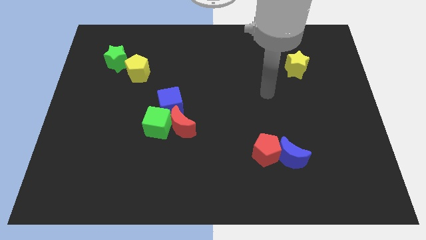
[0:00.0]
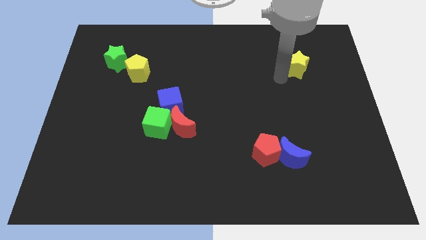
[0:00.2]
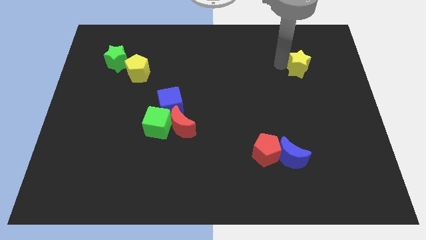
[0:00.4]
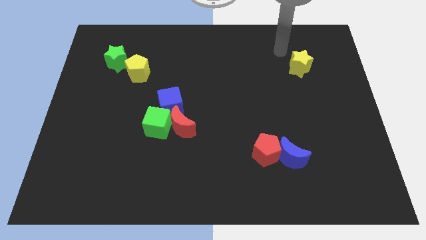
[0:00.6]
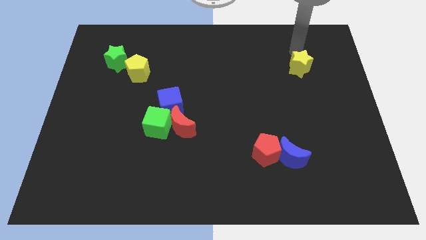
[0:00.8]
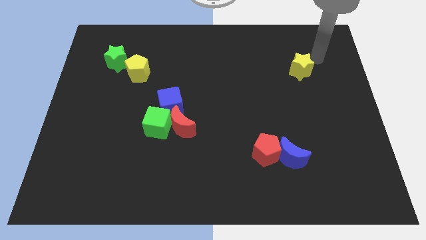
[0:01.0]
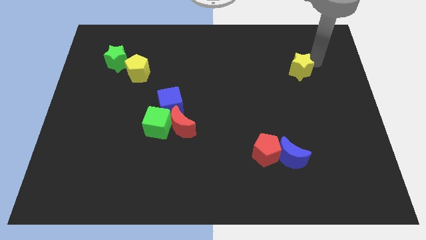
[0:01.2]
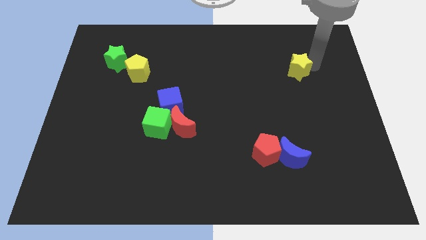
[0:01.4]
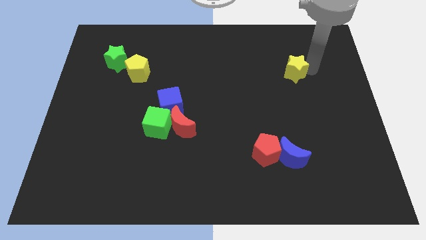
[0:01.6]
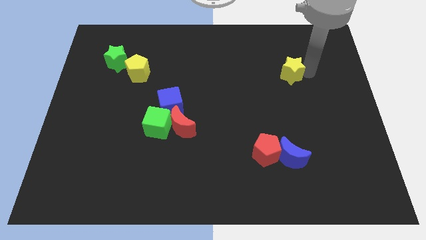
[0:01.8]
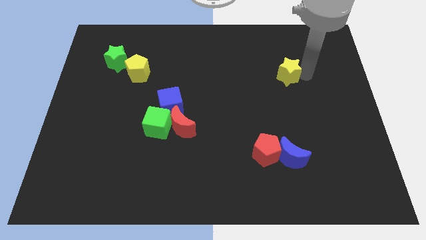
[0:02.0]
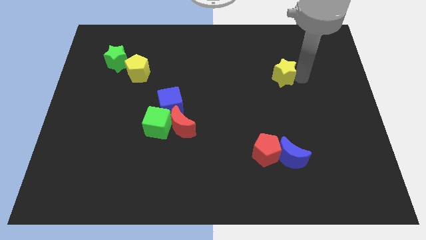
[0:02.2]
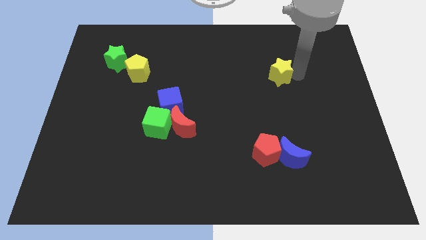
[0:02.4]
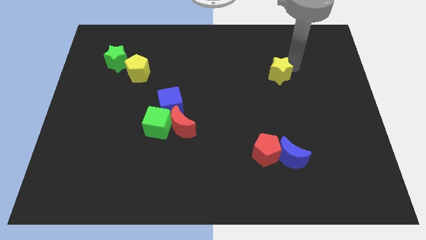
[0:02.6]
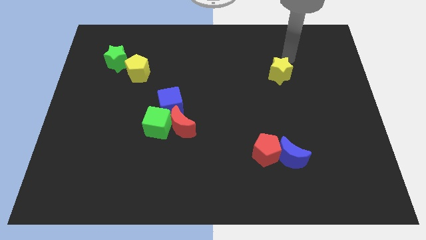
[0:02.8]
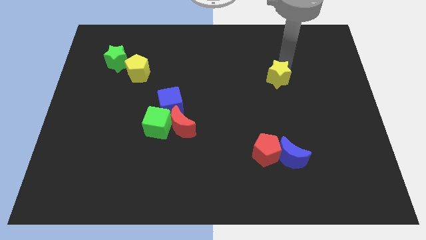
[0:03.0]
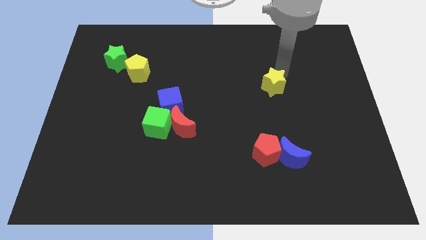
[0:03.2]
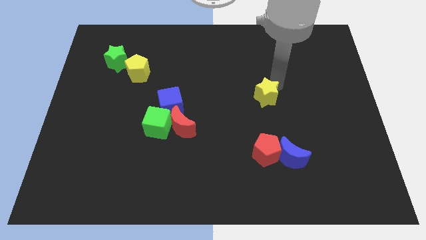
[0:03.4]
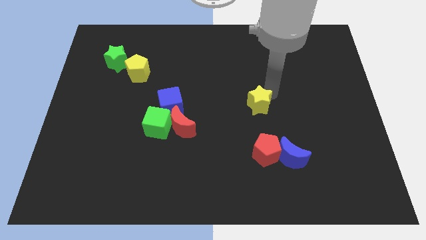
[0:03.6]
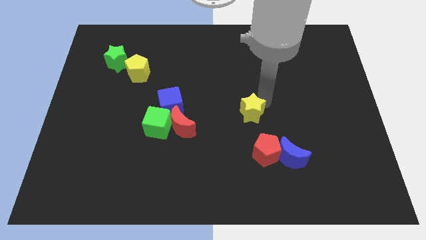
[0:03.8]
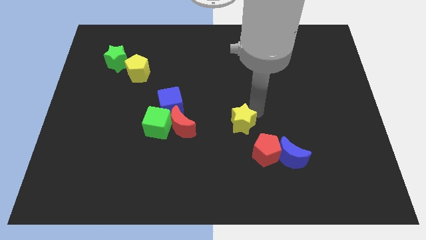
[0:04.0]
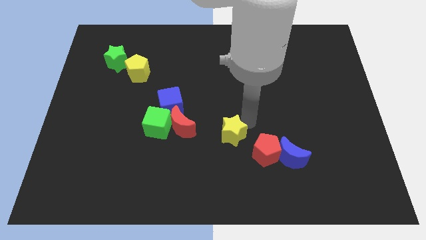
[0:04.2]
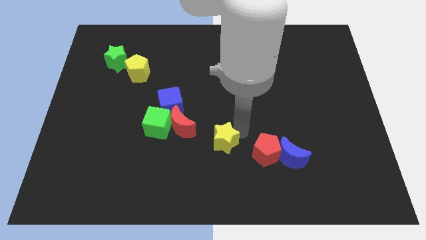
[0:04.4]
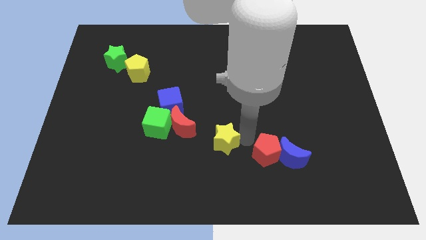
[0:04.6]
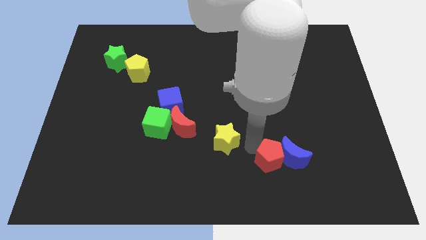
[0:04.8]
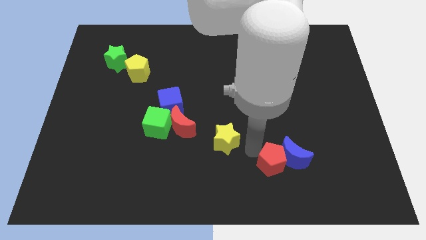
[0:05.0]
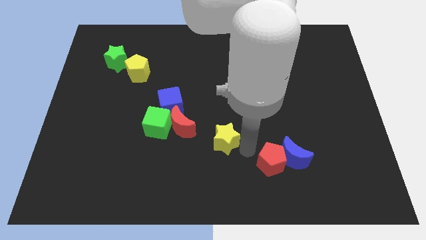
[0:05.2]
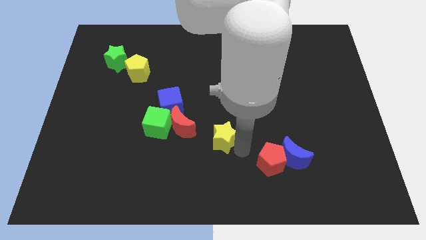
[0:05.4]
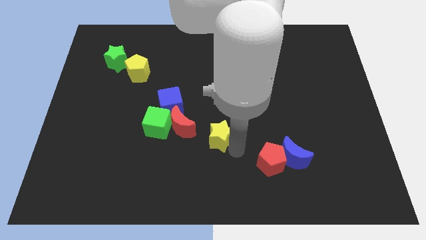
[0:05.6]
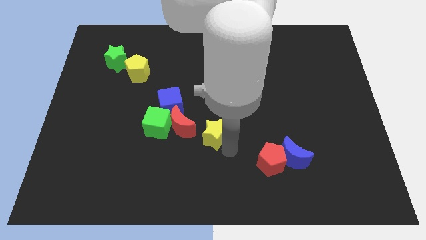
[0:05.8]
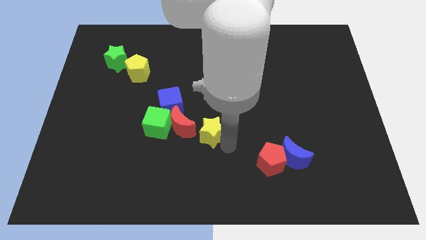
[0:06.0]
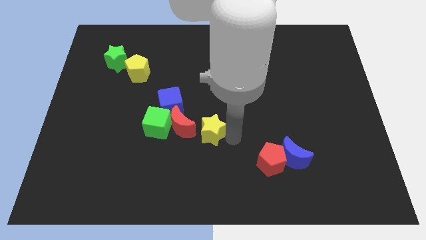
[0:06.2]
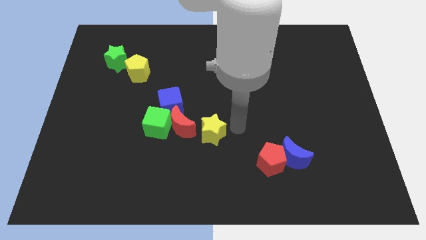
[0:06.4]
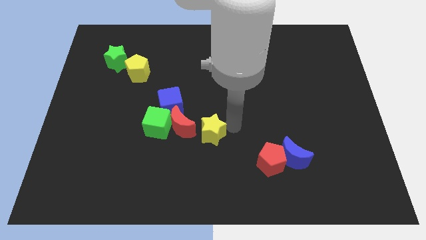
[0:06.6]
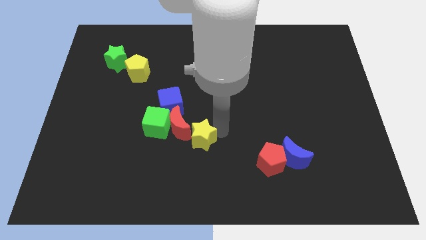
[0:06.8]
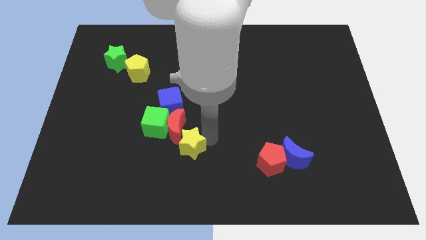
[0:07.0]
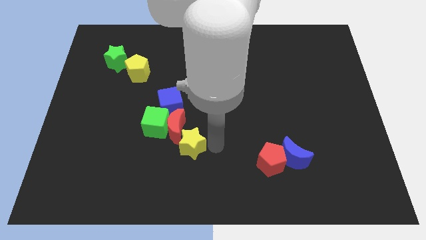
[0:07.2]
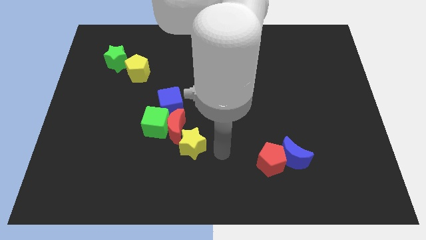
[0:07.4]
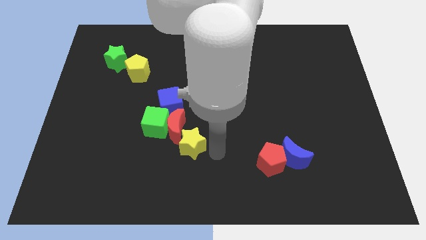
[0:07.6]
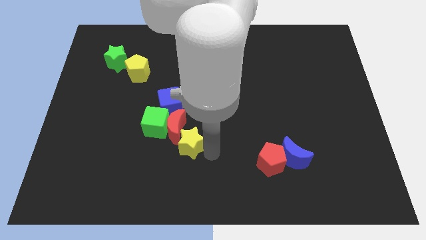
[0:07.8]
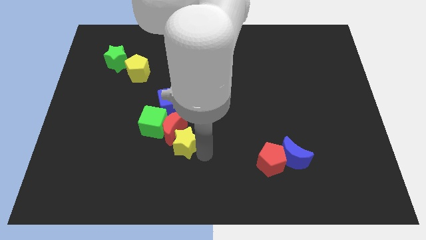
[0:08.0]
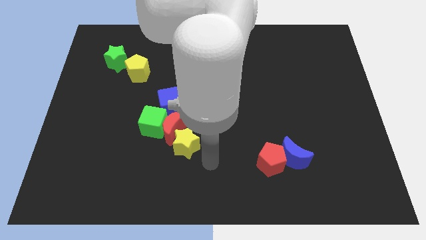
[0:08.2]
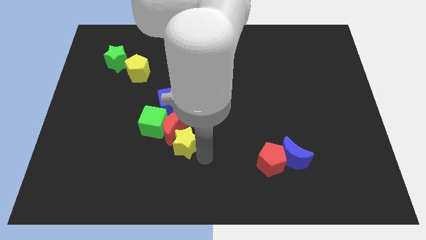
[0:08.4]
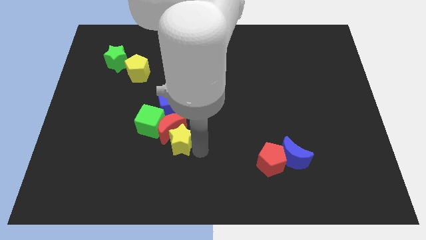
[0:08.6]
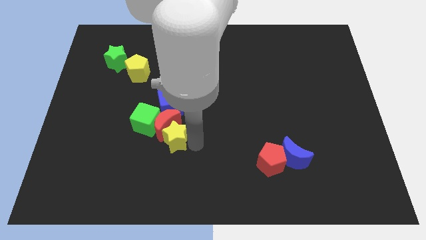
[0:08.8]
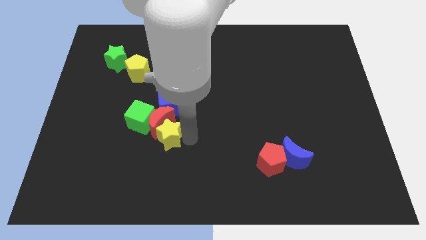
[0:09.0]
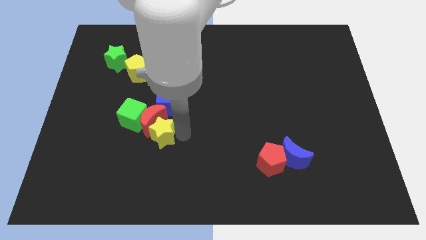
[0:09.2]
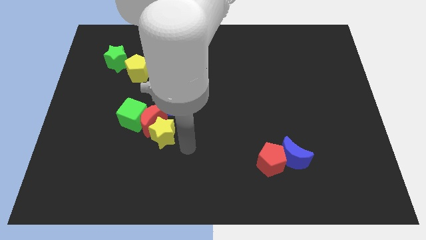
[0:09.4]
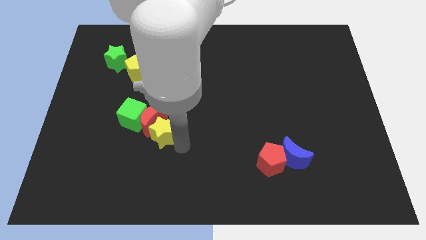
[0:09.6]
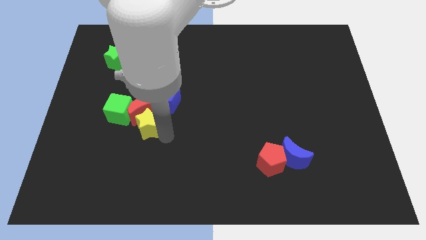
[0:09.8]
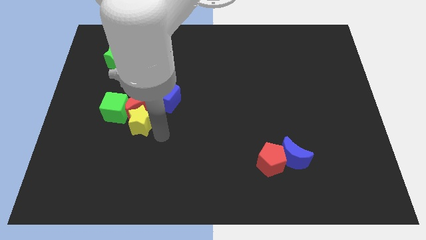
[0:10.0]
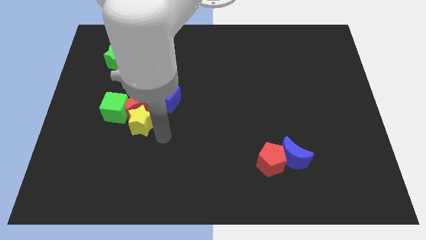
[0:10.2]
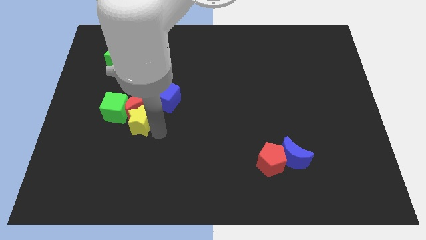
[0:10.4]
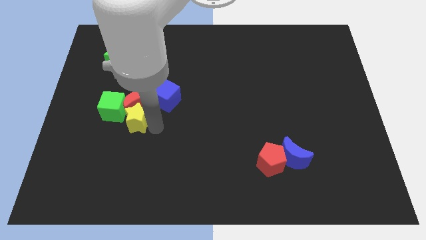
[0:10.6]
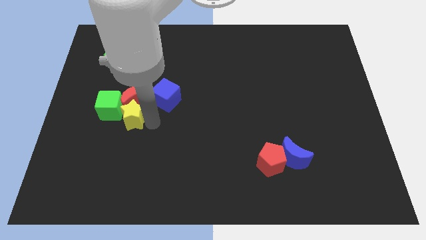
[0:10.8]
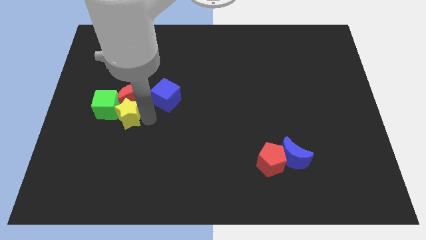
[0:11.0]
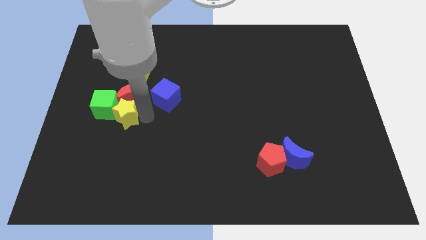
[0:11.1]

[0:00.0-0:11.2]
push the yellow star next to the green cube

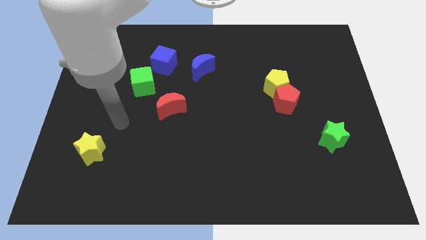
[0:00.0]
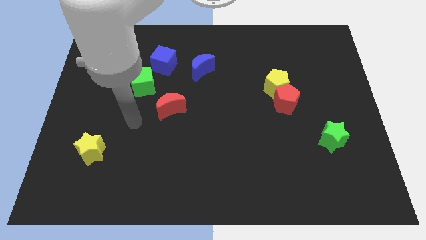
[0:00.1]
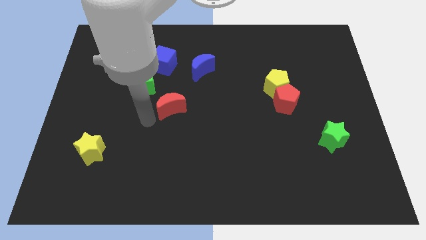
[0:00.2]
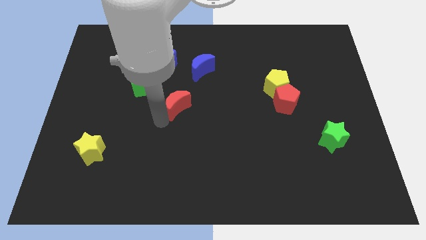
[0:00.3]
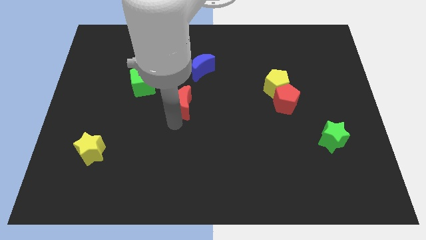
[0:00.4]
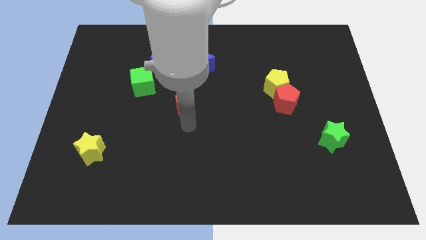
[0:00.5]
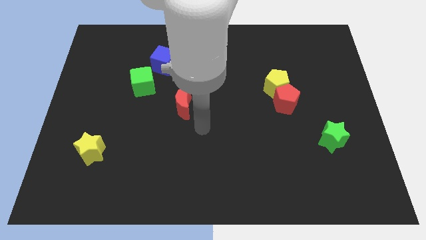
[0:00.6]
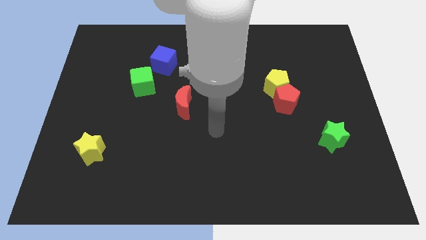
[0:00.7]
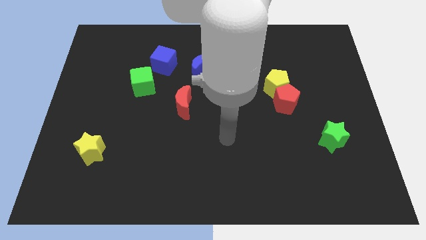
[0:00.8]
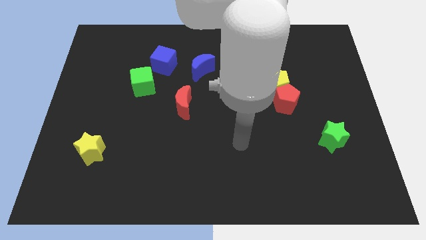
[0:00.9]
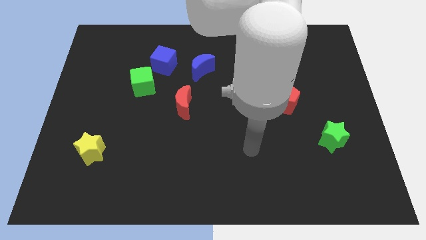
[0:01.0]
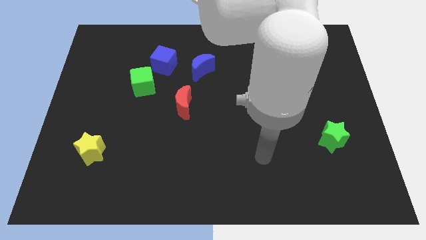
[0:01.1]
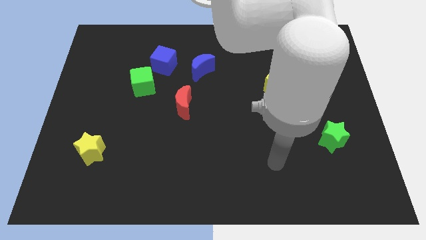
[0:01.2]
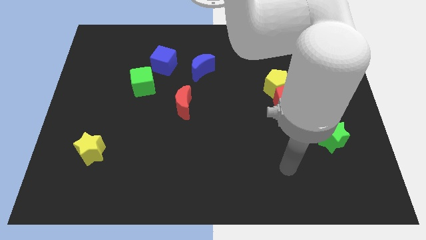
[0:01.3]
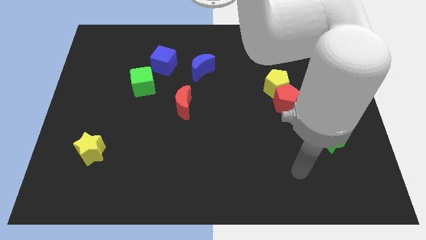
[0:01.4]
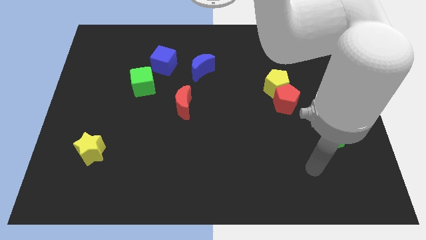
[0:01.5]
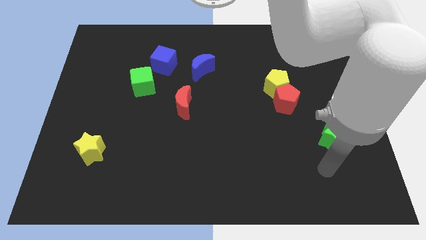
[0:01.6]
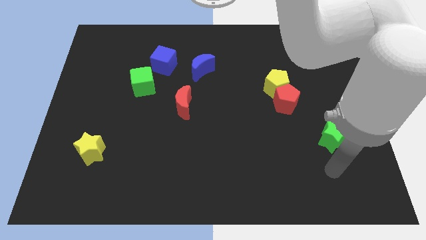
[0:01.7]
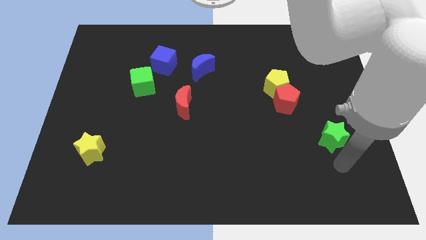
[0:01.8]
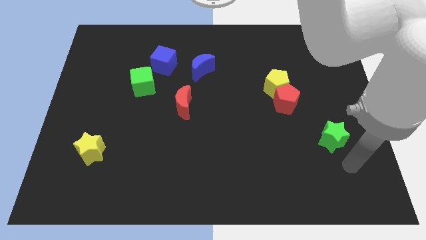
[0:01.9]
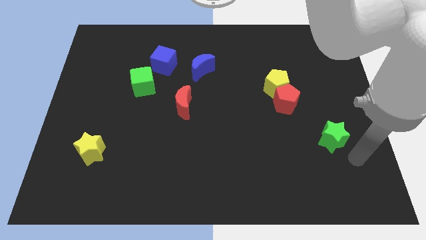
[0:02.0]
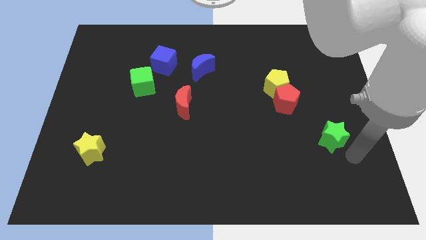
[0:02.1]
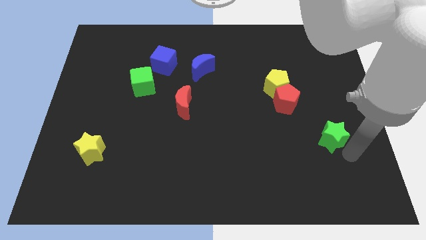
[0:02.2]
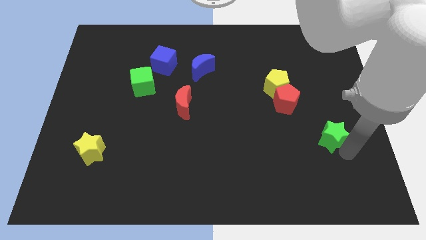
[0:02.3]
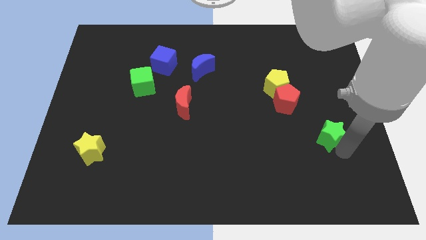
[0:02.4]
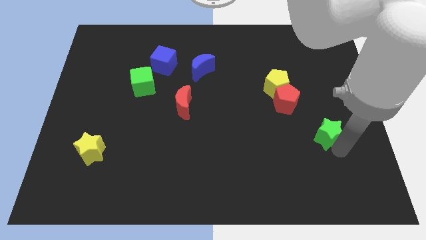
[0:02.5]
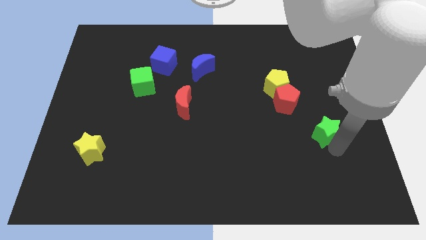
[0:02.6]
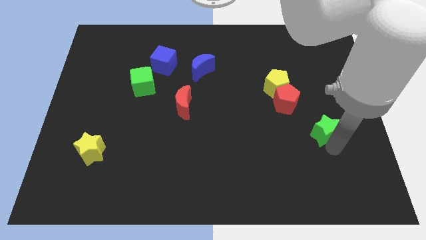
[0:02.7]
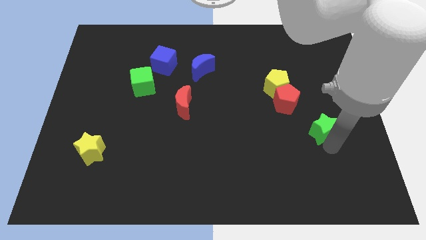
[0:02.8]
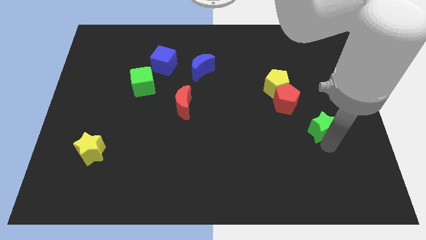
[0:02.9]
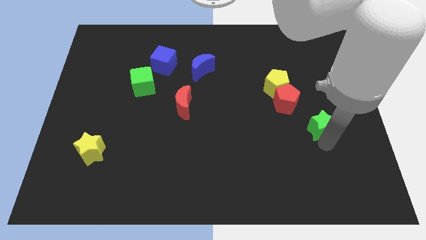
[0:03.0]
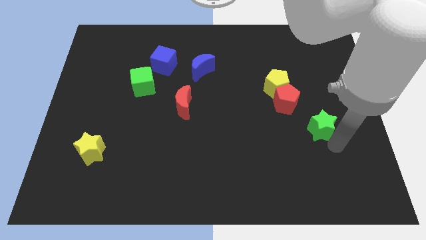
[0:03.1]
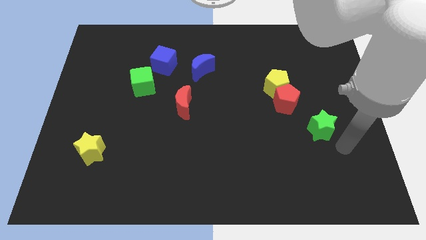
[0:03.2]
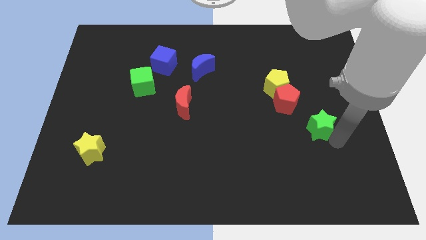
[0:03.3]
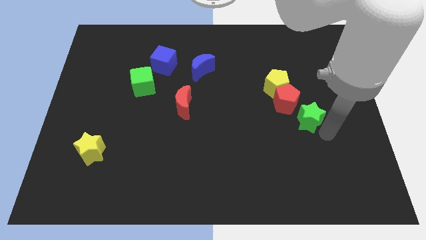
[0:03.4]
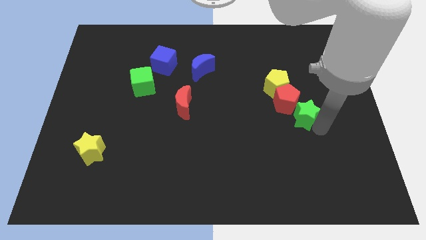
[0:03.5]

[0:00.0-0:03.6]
slide the green star towards the red pentagon
